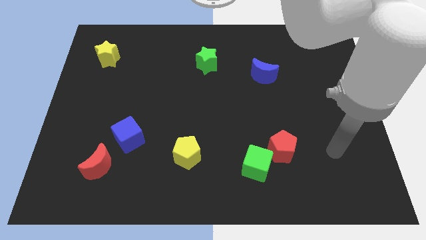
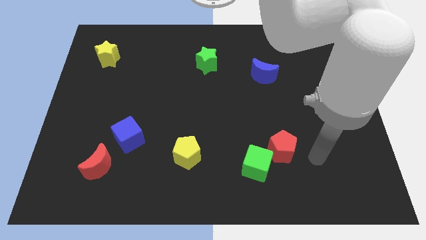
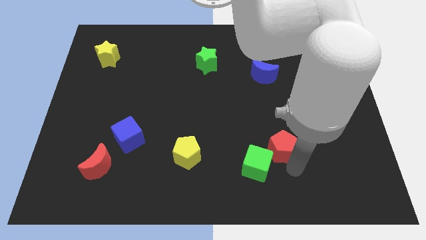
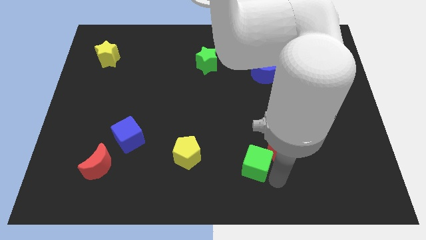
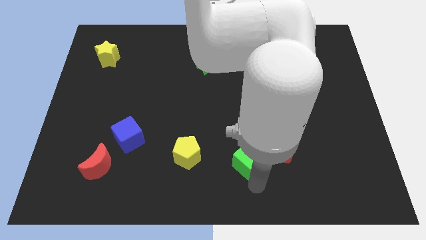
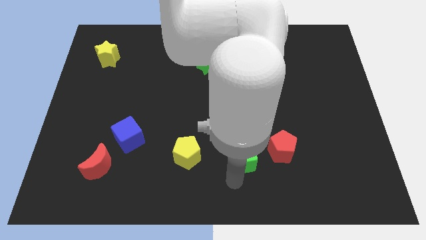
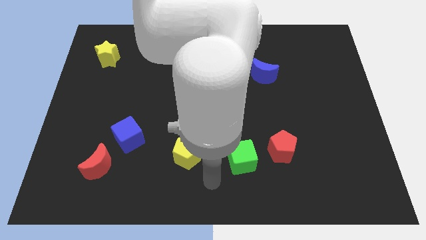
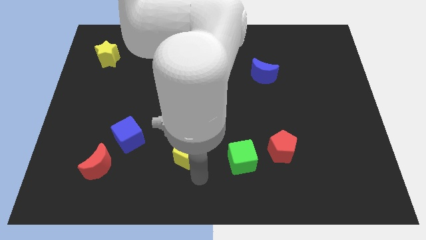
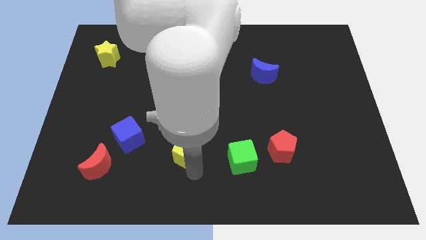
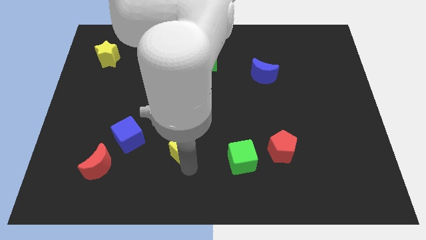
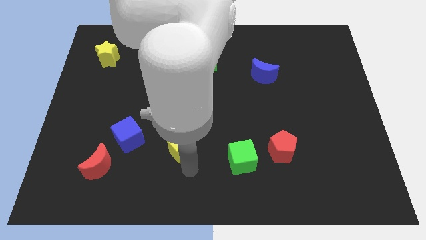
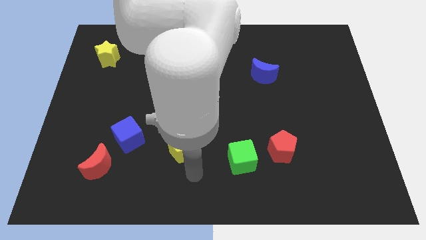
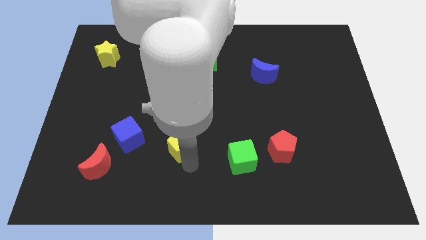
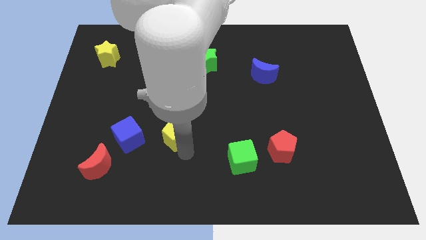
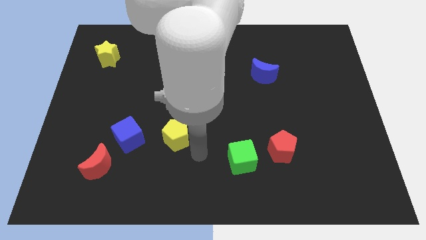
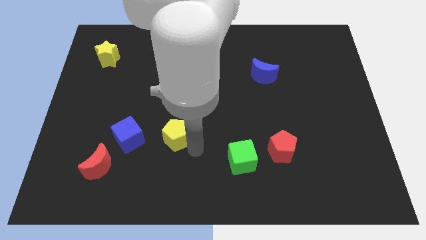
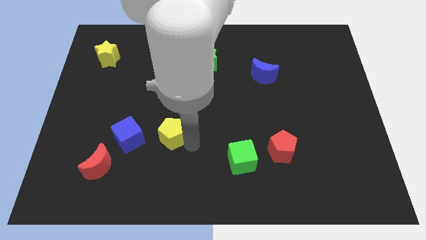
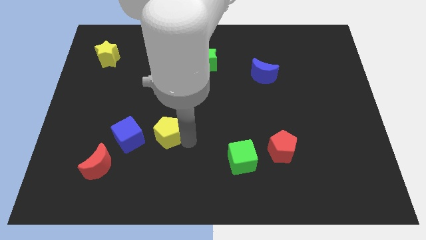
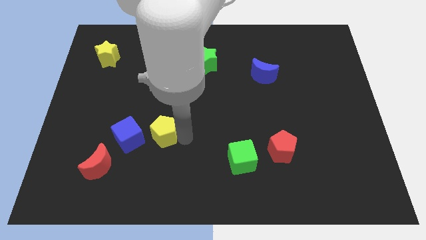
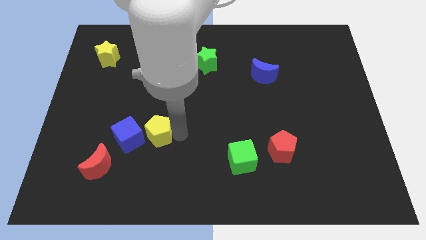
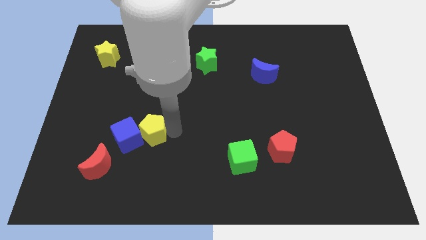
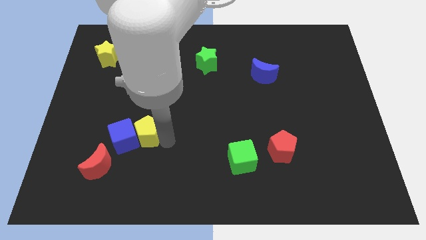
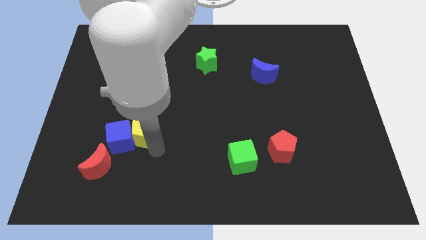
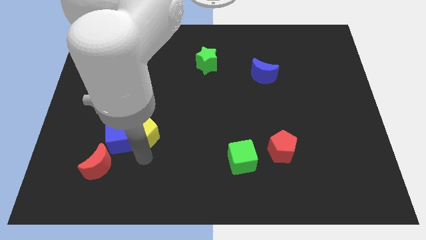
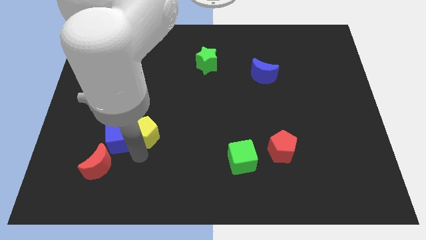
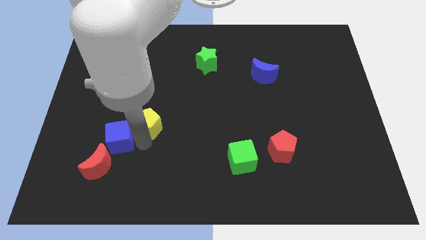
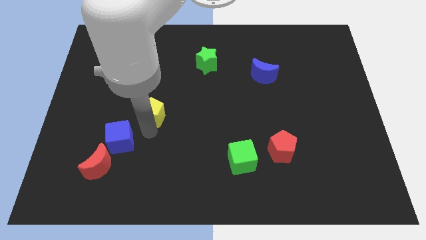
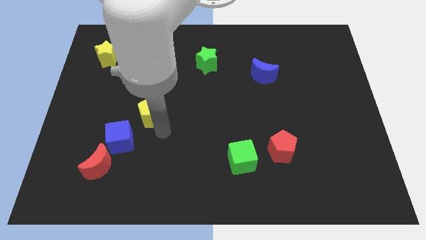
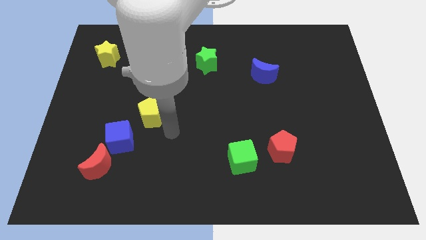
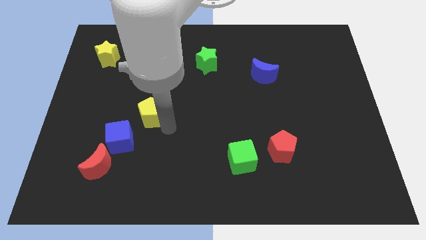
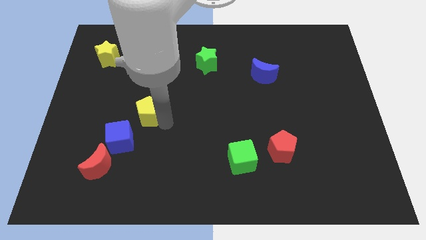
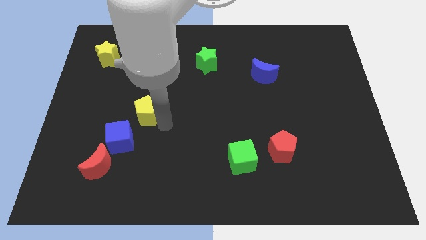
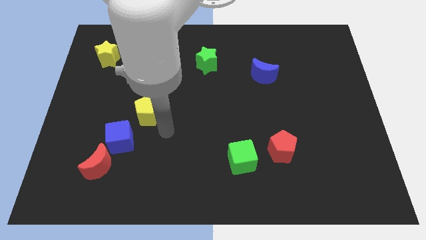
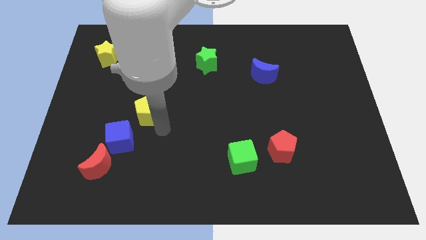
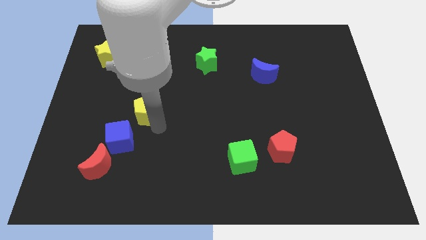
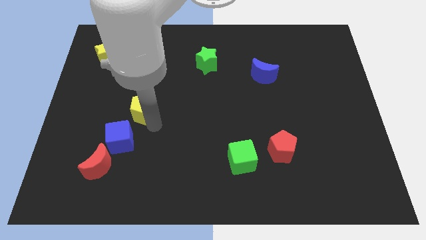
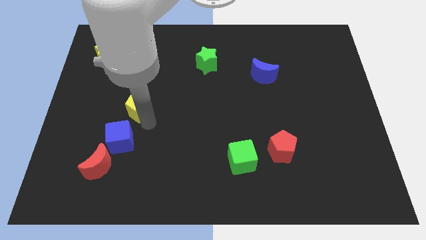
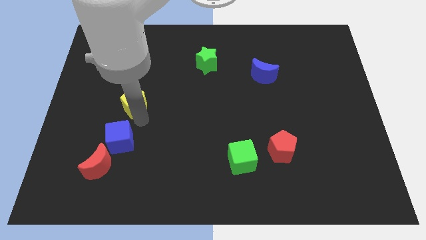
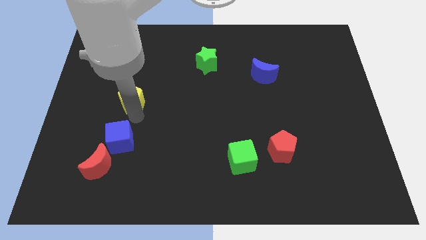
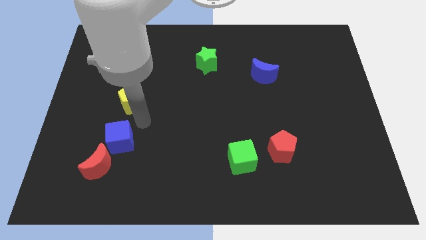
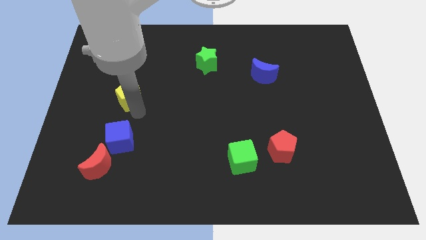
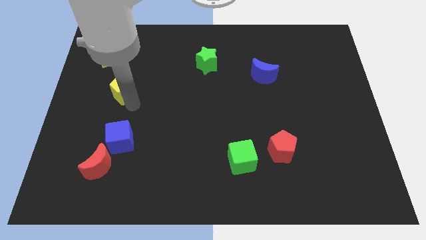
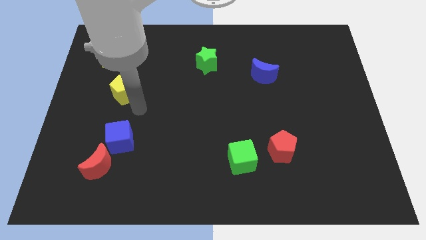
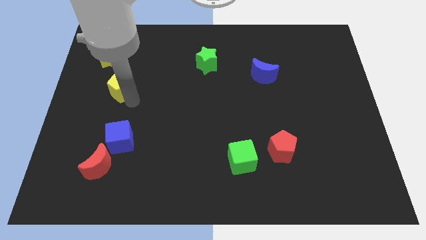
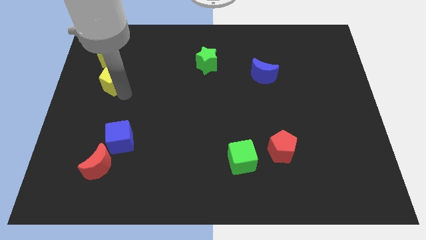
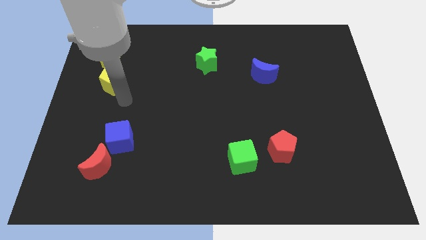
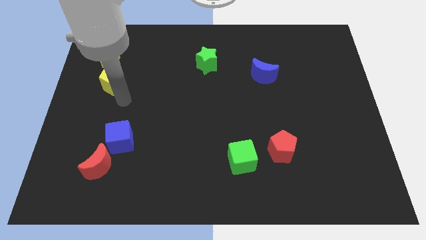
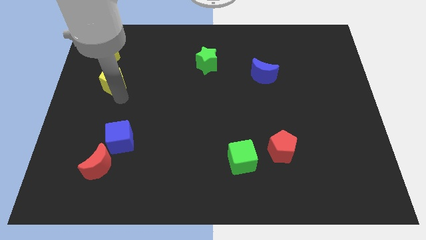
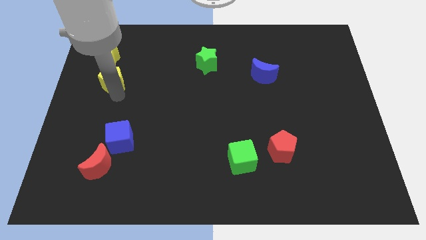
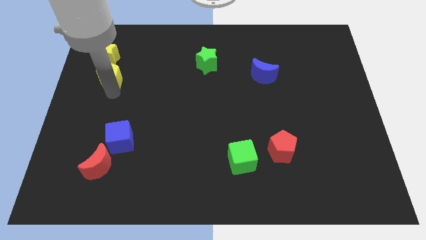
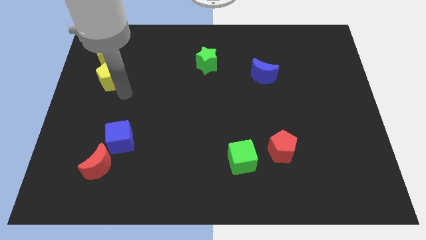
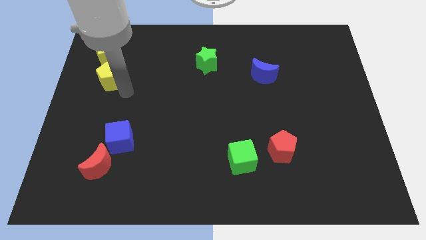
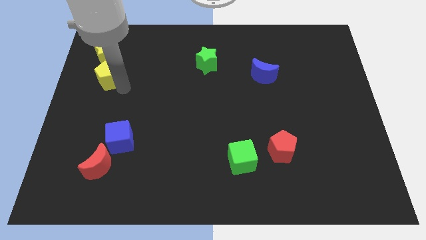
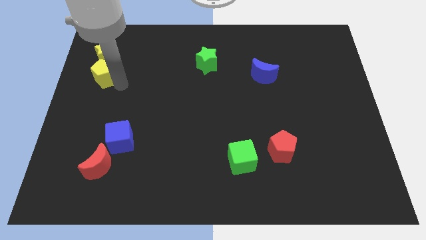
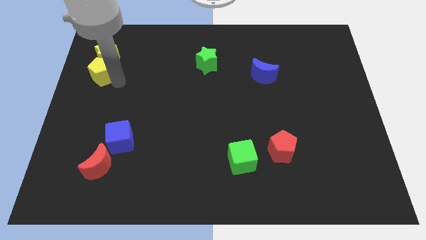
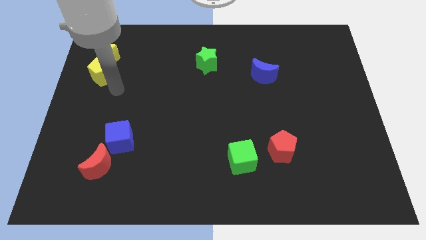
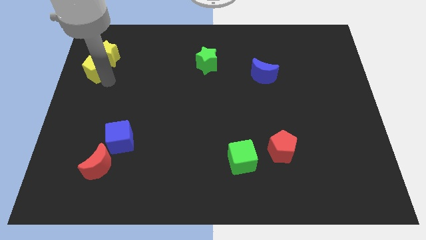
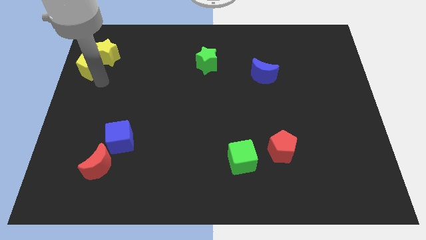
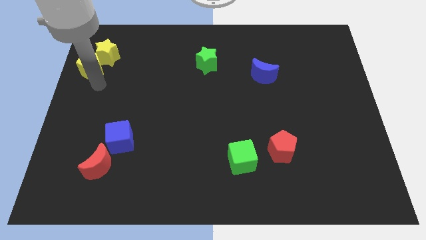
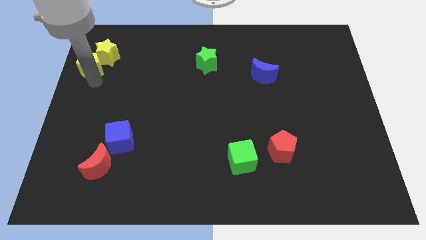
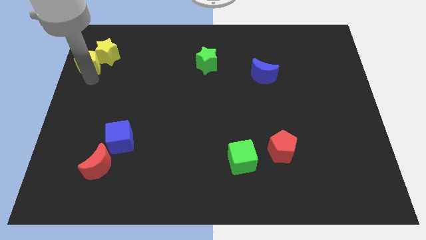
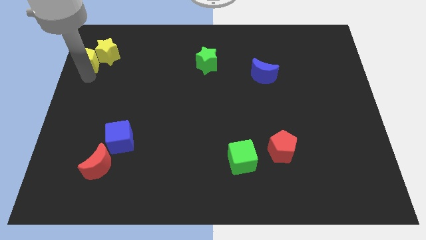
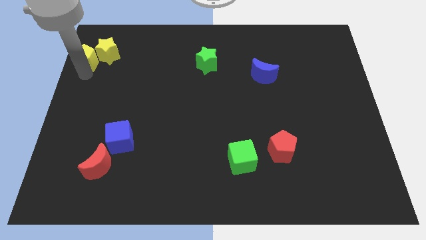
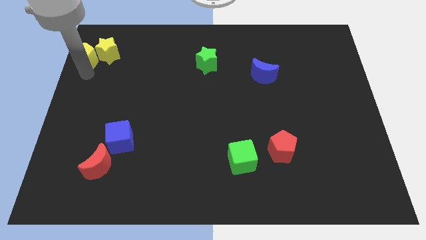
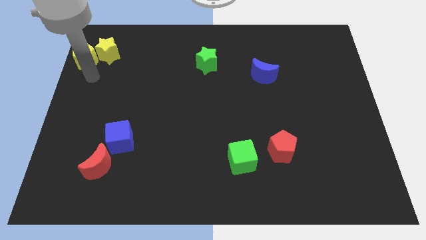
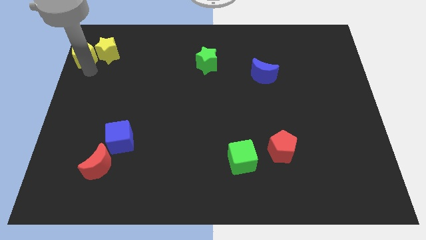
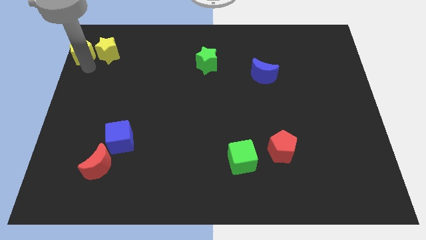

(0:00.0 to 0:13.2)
slide the yellow pentagon to the top left corner
